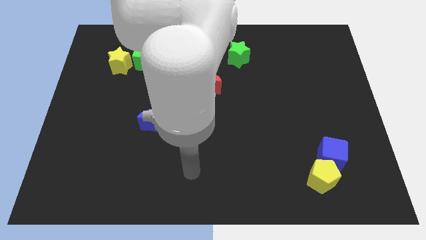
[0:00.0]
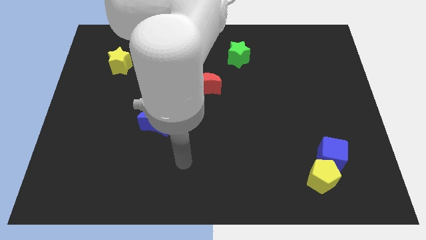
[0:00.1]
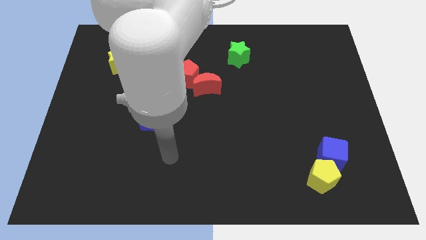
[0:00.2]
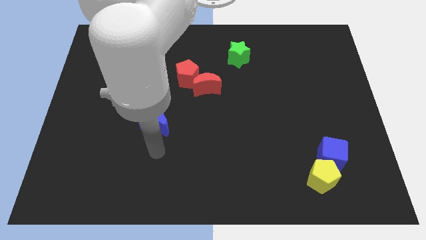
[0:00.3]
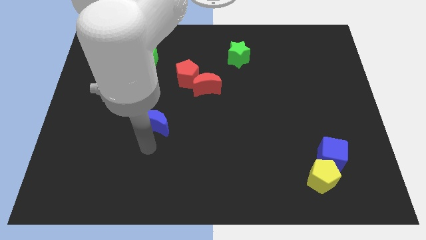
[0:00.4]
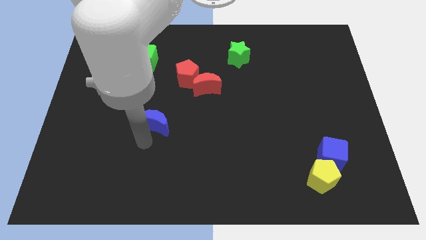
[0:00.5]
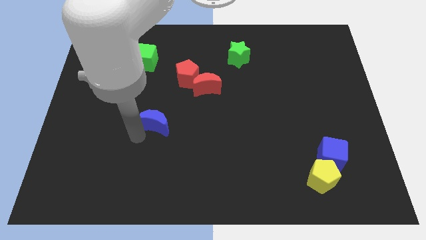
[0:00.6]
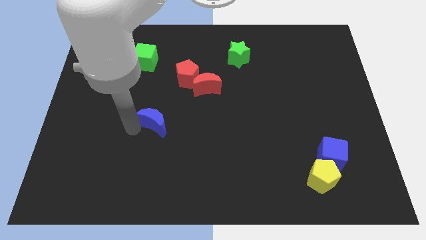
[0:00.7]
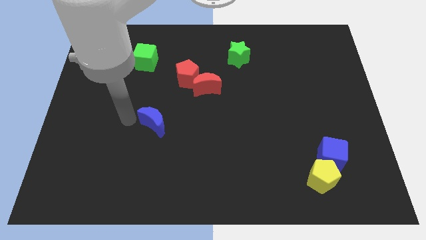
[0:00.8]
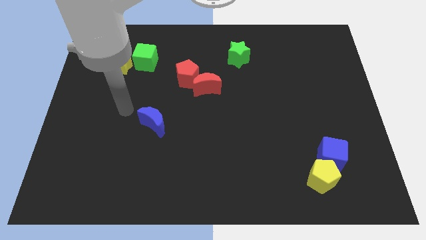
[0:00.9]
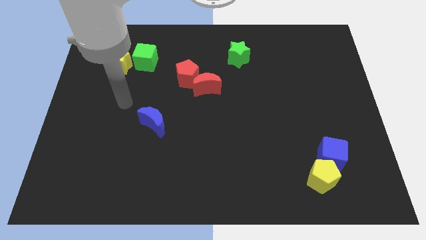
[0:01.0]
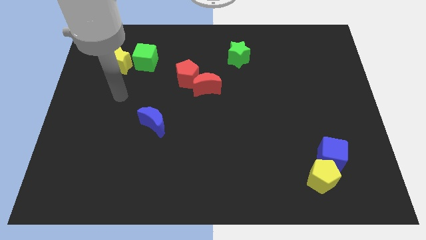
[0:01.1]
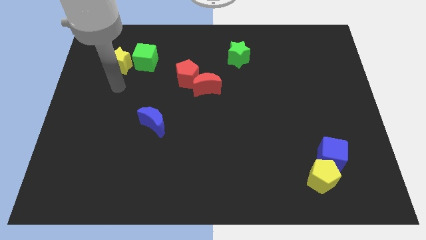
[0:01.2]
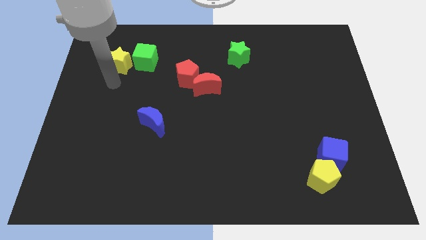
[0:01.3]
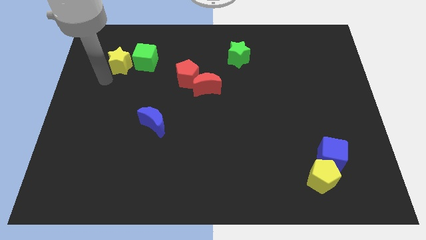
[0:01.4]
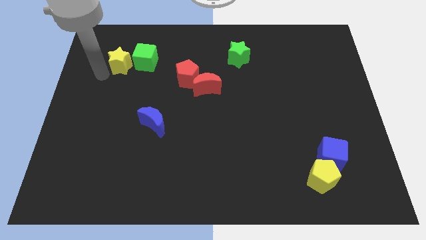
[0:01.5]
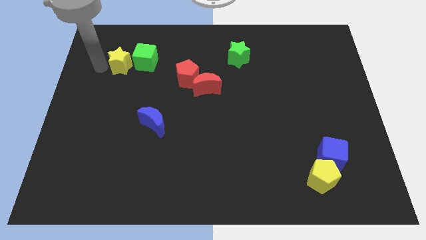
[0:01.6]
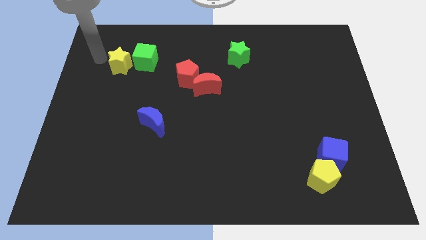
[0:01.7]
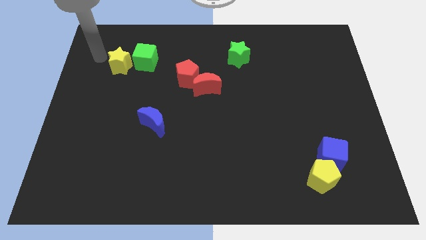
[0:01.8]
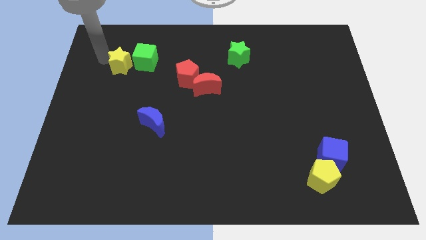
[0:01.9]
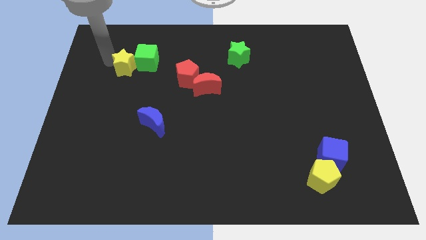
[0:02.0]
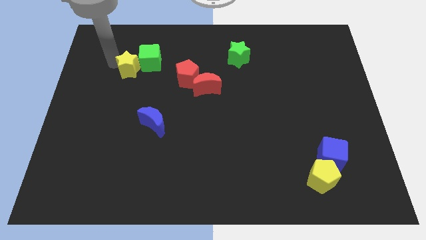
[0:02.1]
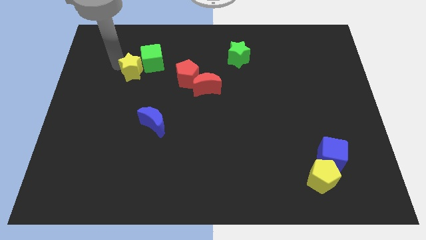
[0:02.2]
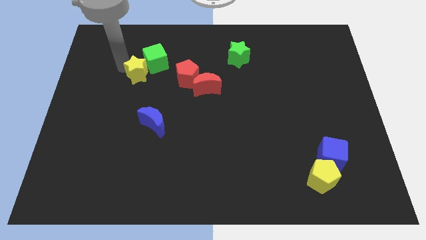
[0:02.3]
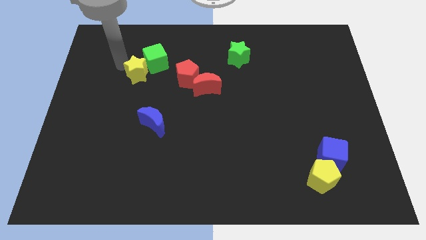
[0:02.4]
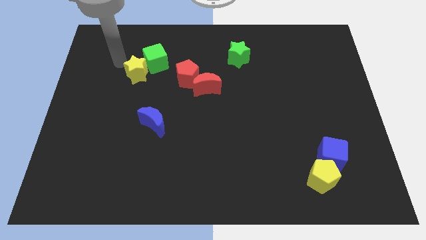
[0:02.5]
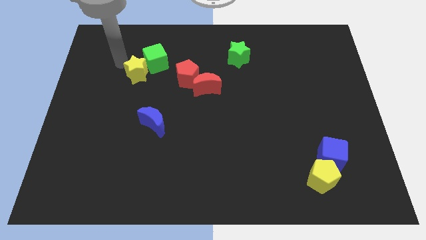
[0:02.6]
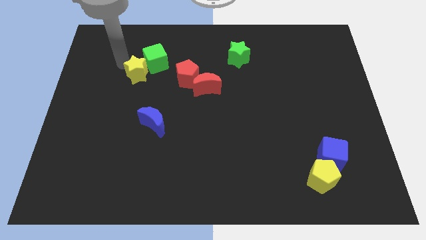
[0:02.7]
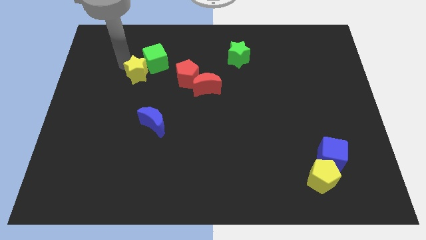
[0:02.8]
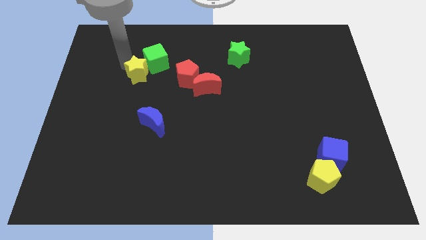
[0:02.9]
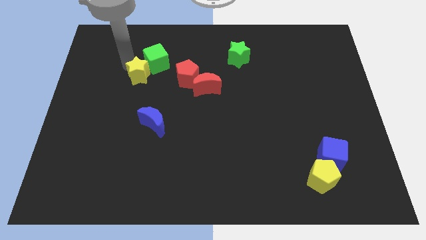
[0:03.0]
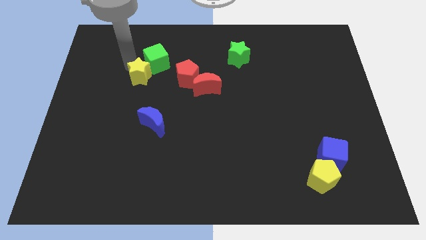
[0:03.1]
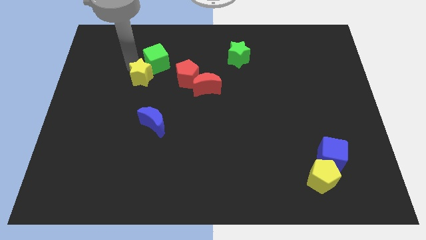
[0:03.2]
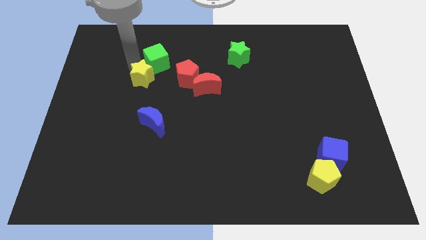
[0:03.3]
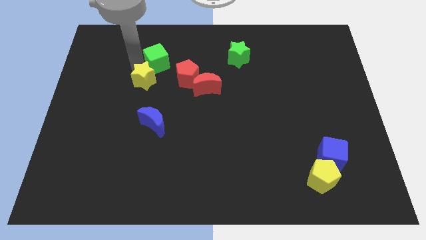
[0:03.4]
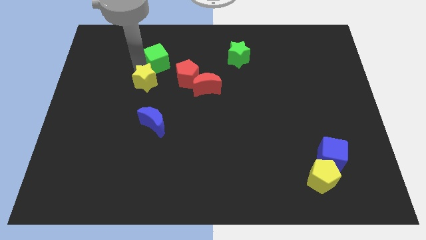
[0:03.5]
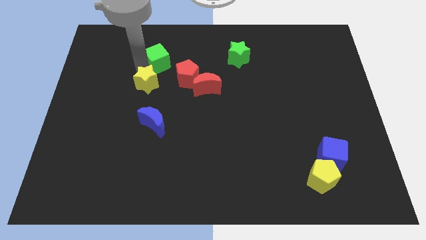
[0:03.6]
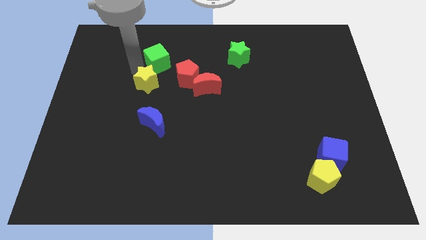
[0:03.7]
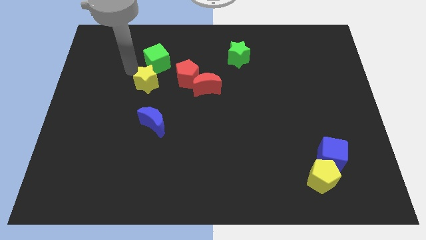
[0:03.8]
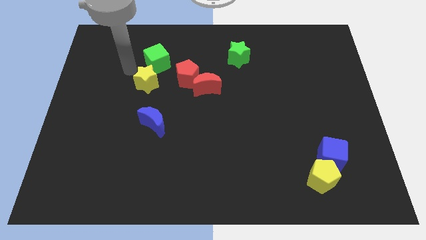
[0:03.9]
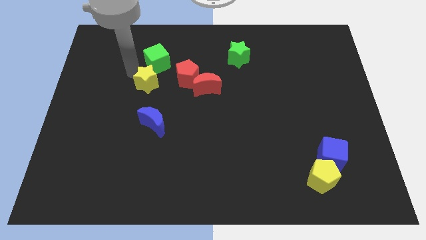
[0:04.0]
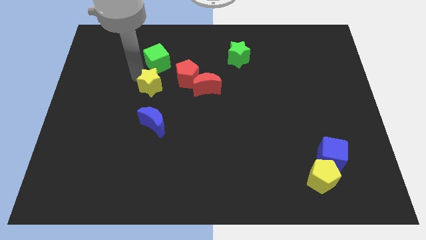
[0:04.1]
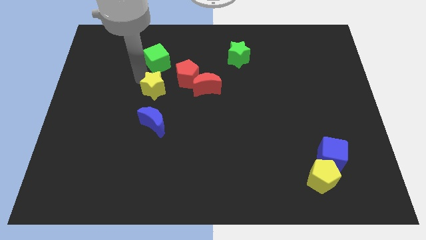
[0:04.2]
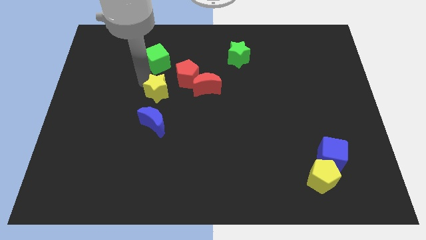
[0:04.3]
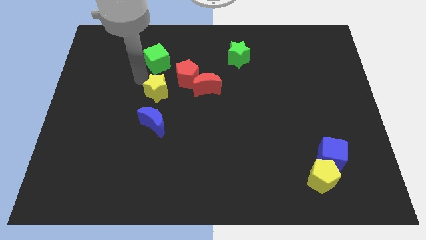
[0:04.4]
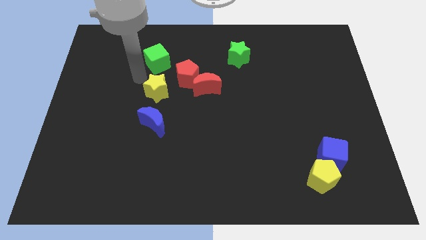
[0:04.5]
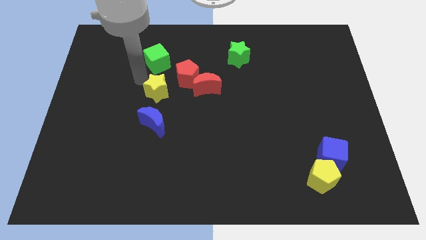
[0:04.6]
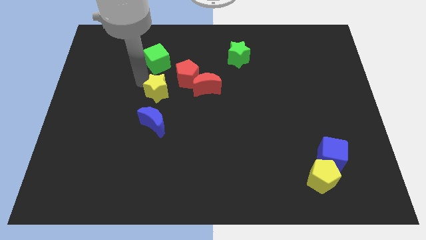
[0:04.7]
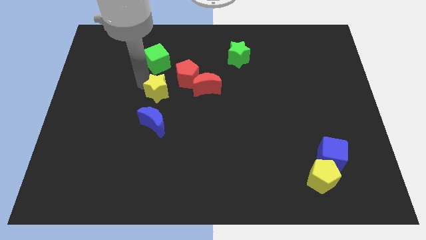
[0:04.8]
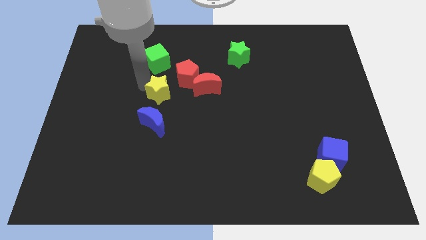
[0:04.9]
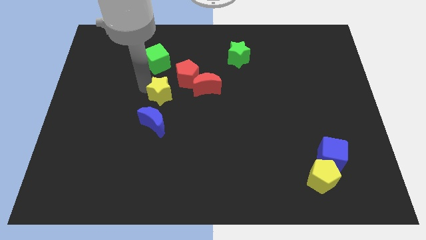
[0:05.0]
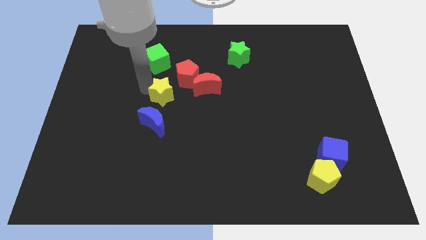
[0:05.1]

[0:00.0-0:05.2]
move the yellow star to the middle of the board

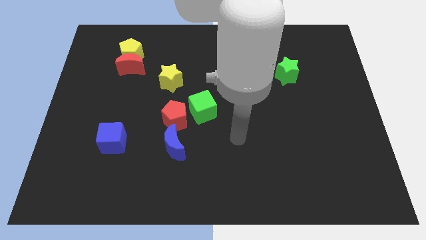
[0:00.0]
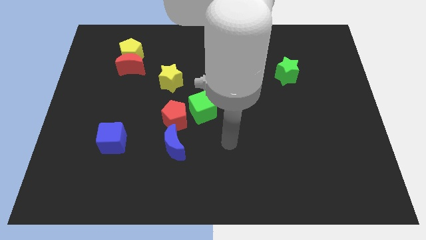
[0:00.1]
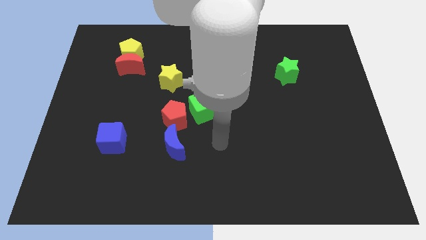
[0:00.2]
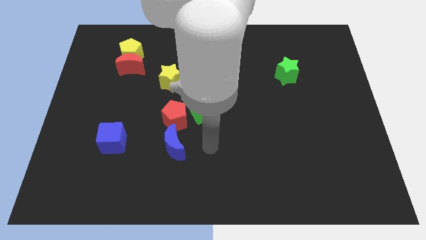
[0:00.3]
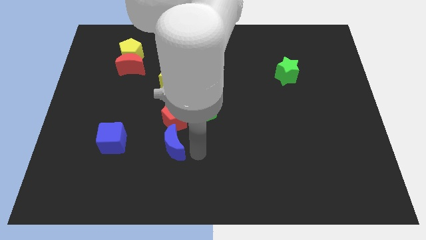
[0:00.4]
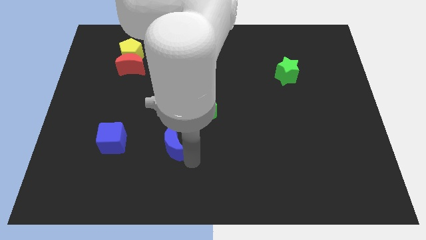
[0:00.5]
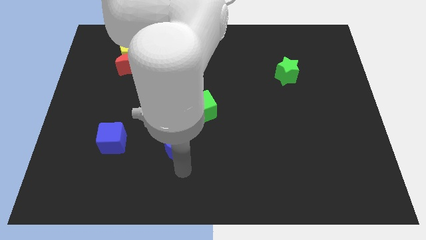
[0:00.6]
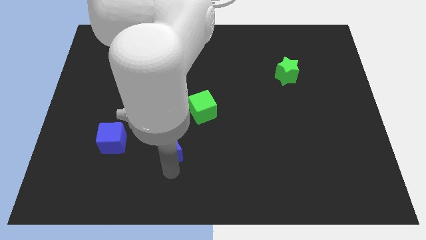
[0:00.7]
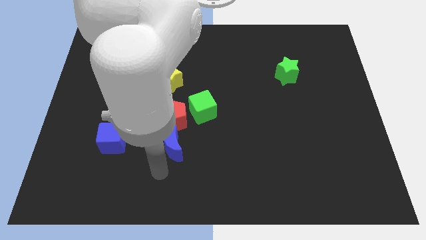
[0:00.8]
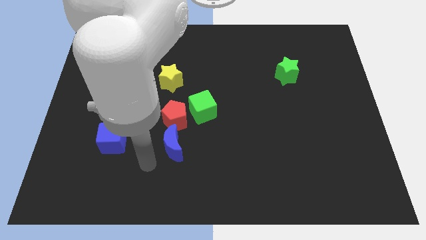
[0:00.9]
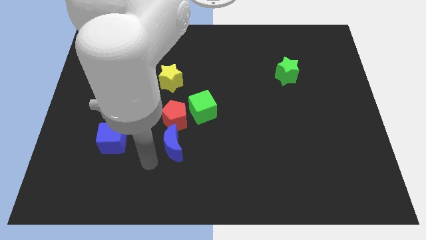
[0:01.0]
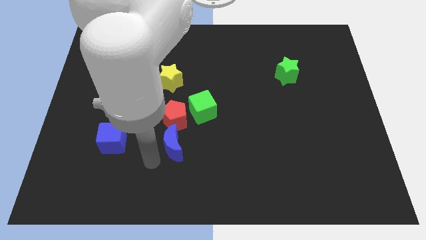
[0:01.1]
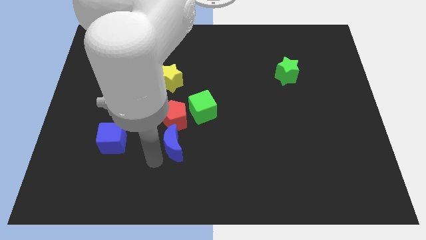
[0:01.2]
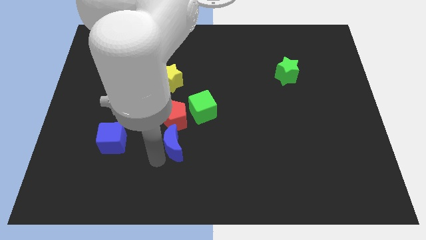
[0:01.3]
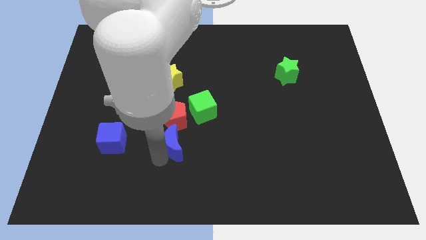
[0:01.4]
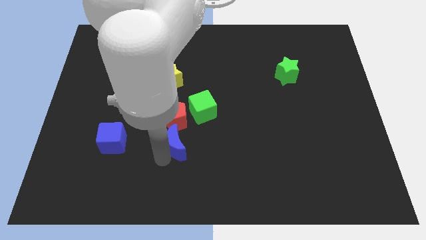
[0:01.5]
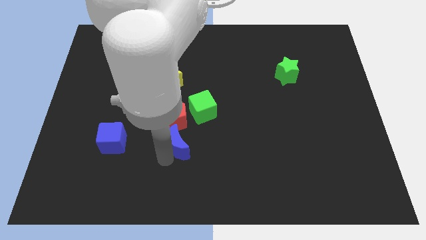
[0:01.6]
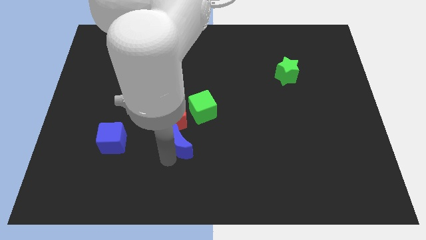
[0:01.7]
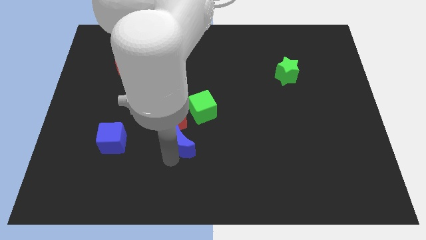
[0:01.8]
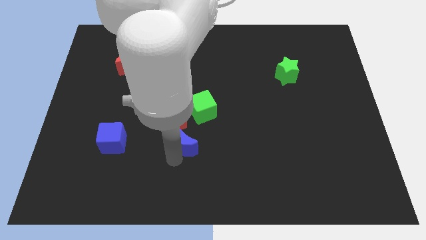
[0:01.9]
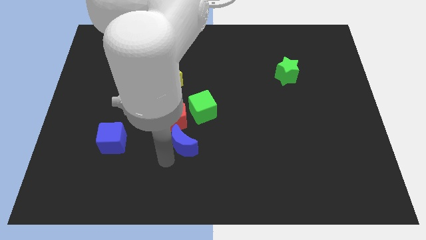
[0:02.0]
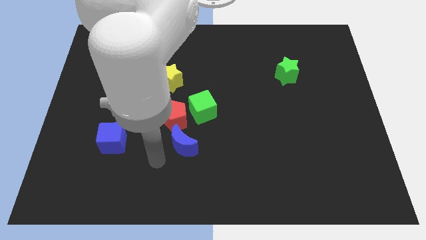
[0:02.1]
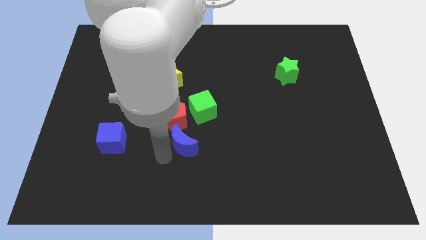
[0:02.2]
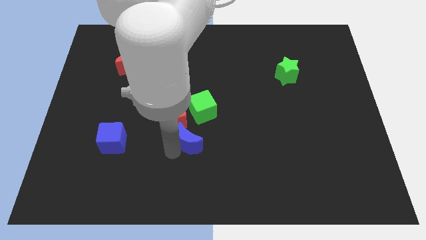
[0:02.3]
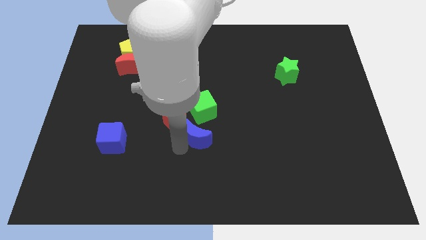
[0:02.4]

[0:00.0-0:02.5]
push the blue moon to the center

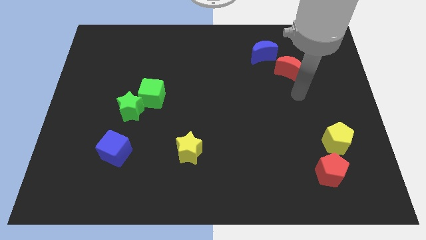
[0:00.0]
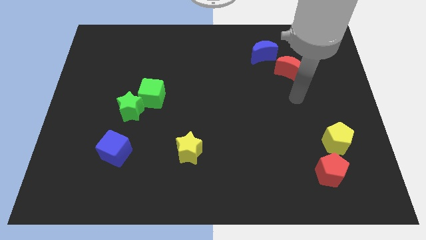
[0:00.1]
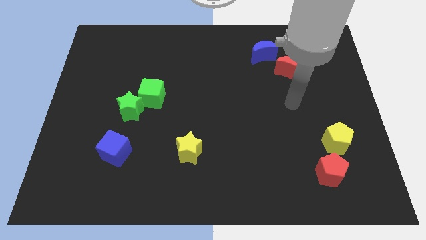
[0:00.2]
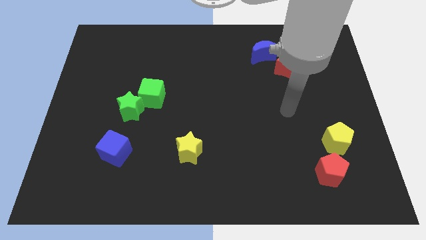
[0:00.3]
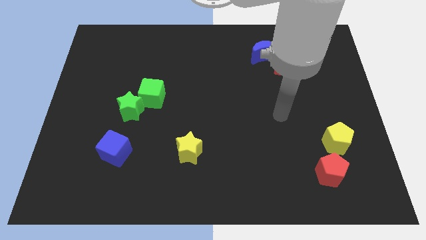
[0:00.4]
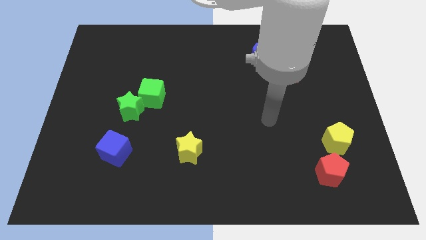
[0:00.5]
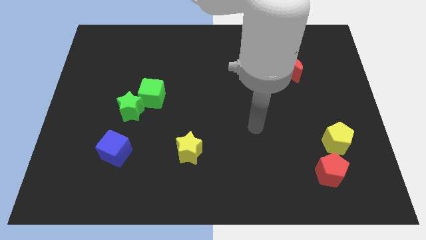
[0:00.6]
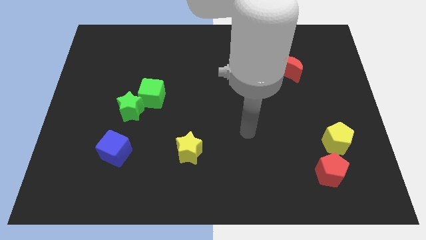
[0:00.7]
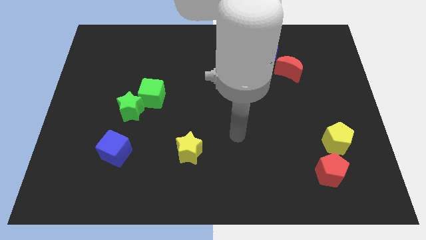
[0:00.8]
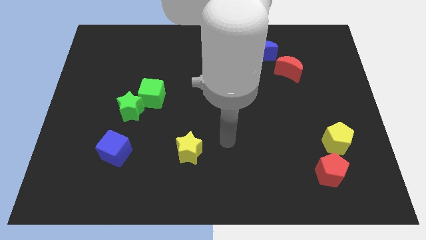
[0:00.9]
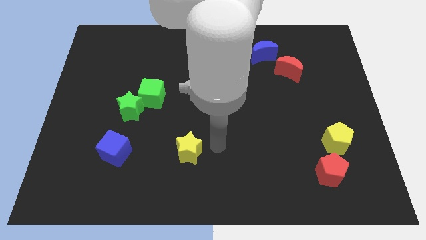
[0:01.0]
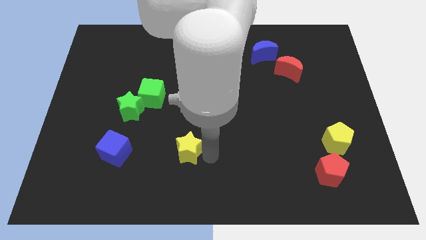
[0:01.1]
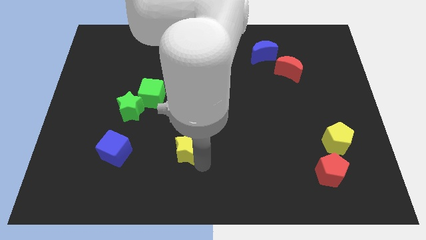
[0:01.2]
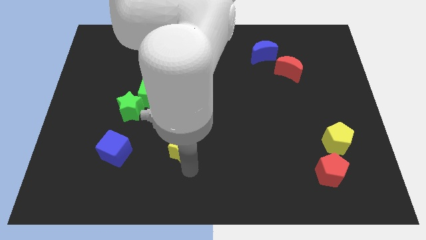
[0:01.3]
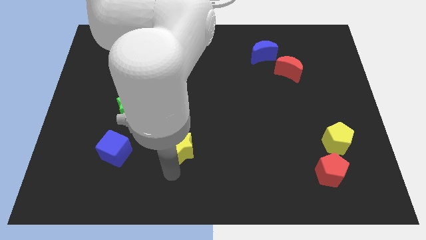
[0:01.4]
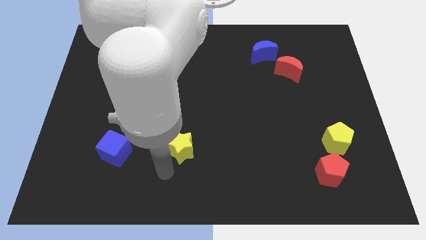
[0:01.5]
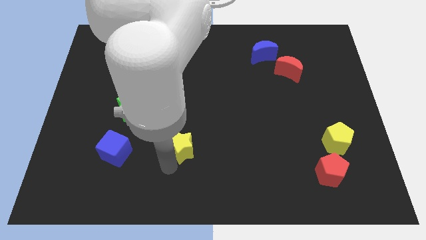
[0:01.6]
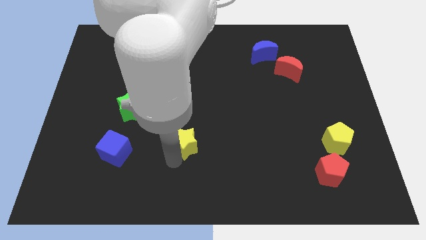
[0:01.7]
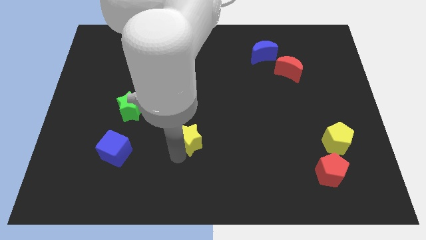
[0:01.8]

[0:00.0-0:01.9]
push the yellow star to the center of the board
